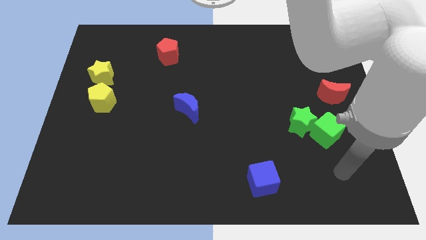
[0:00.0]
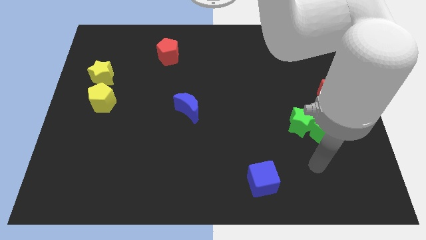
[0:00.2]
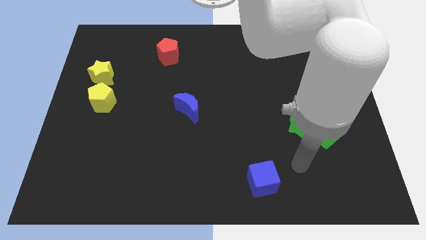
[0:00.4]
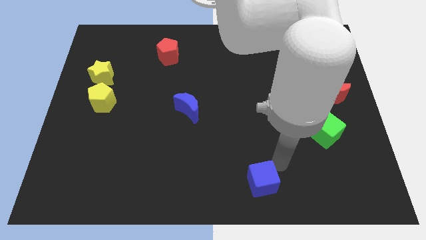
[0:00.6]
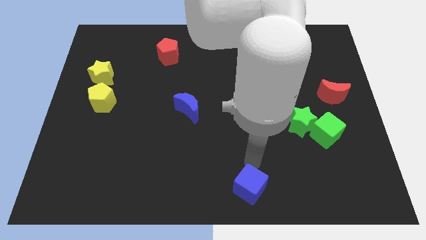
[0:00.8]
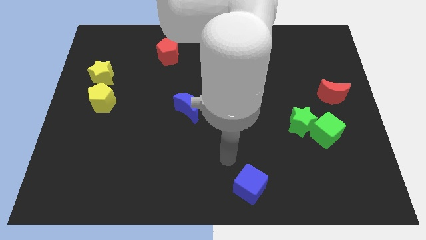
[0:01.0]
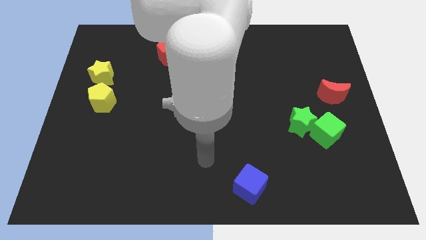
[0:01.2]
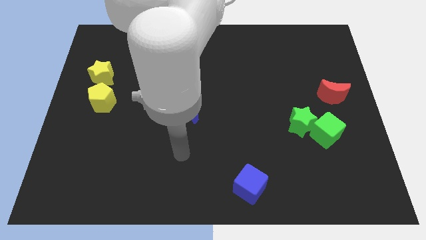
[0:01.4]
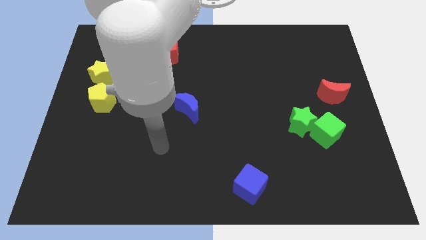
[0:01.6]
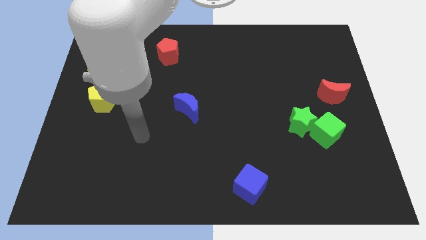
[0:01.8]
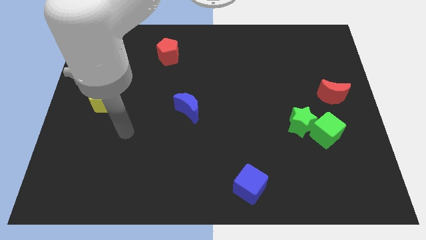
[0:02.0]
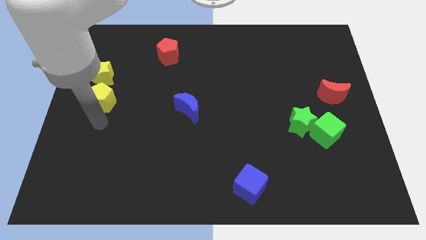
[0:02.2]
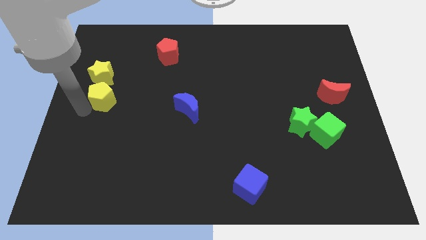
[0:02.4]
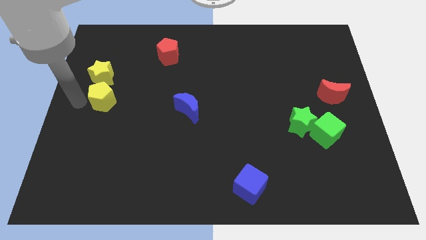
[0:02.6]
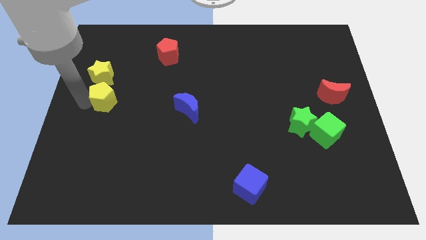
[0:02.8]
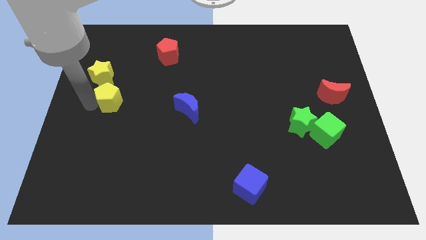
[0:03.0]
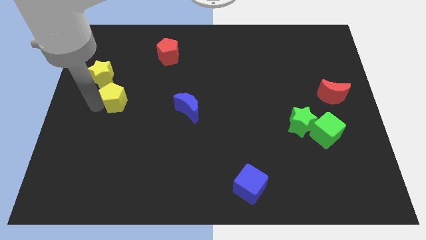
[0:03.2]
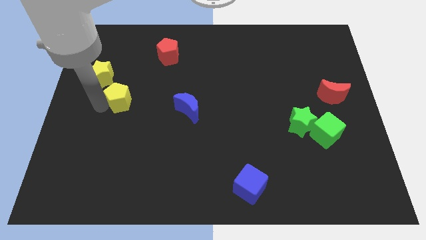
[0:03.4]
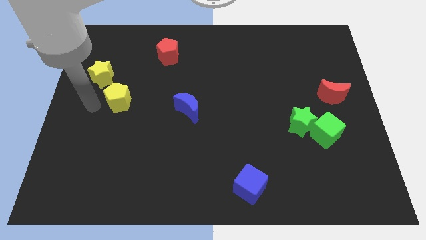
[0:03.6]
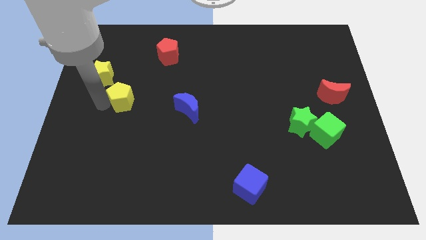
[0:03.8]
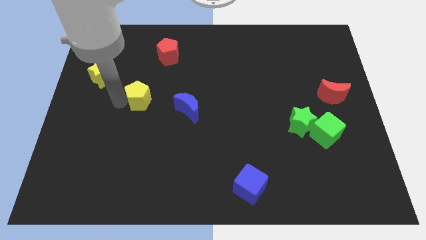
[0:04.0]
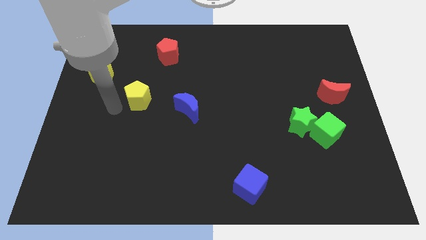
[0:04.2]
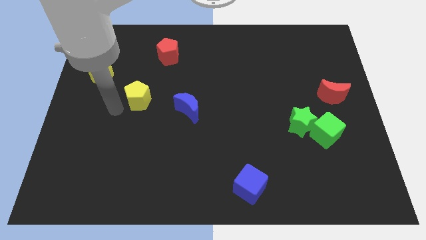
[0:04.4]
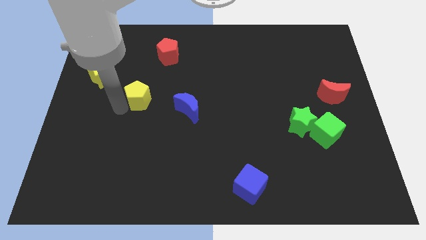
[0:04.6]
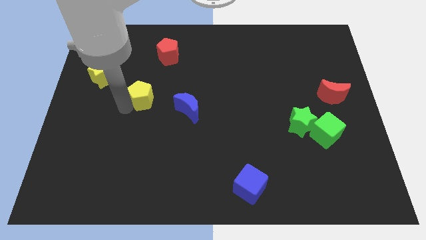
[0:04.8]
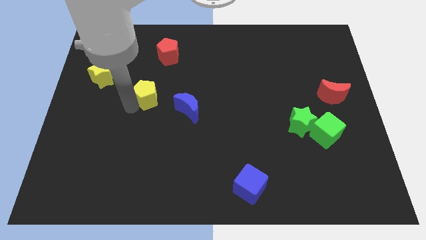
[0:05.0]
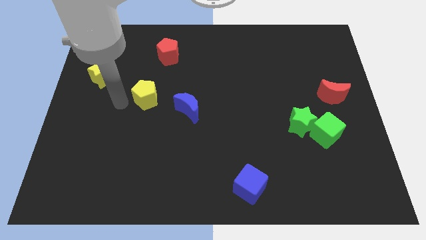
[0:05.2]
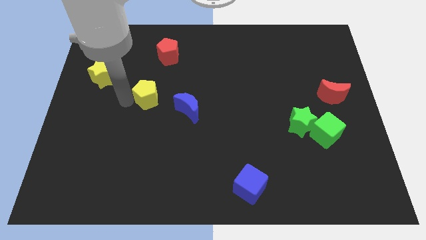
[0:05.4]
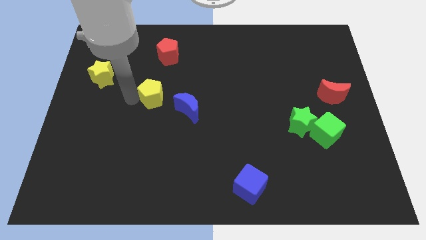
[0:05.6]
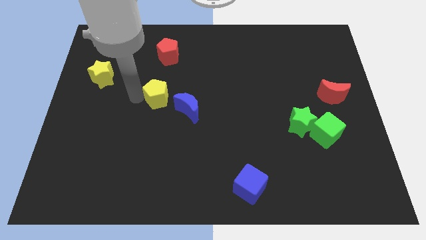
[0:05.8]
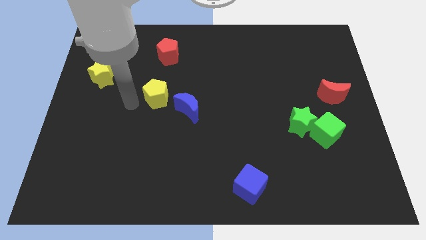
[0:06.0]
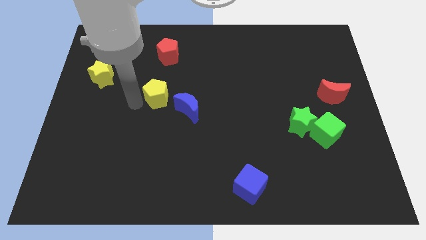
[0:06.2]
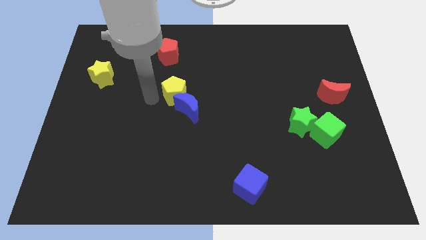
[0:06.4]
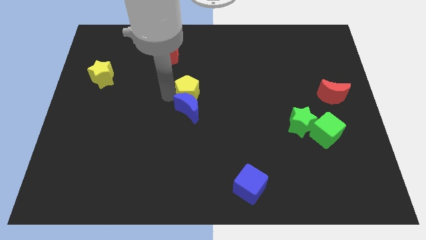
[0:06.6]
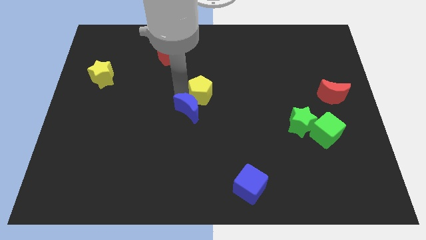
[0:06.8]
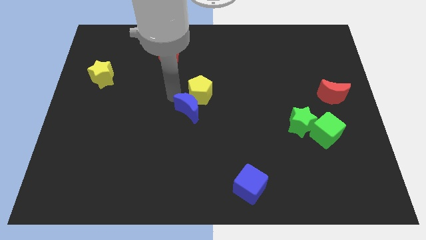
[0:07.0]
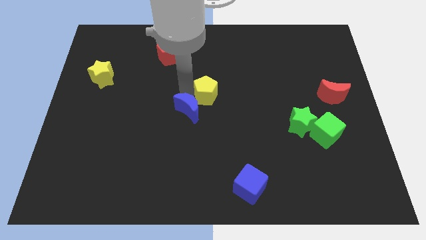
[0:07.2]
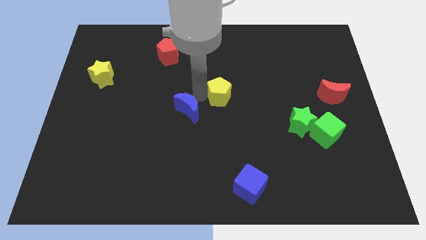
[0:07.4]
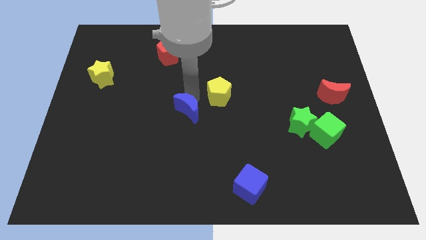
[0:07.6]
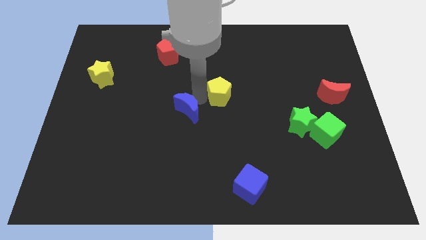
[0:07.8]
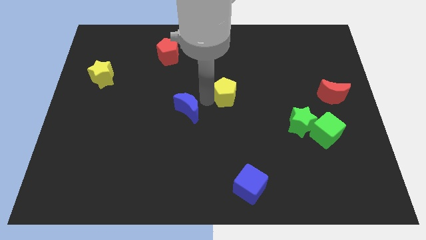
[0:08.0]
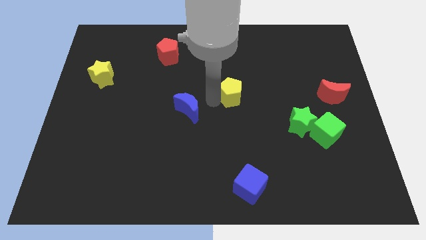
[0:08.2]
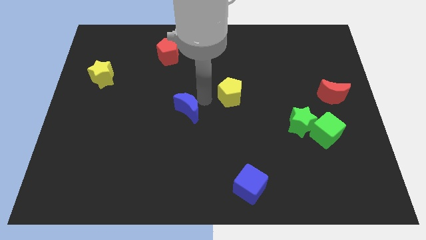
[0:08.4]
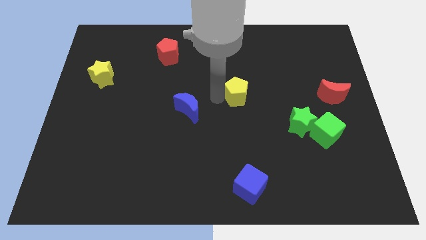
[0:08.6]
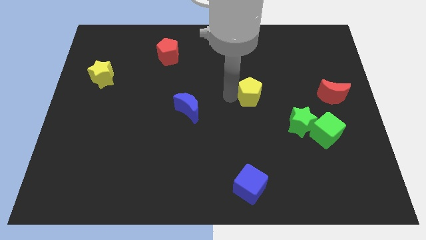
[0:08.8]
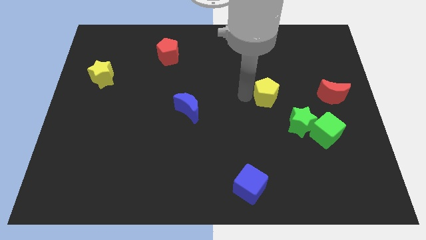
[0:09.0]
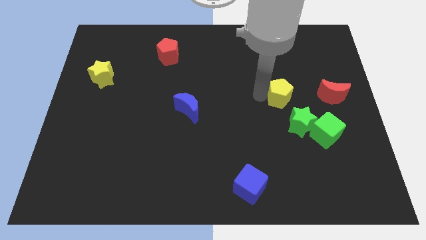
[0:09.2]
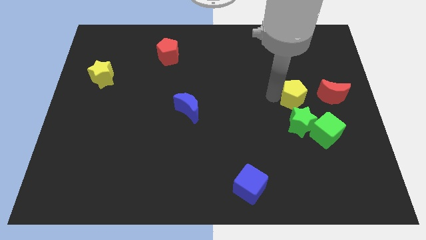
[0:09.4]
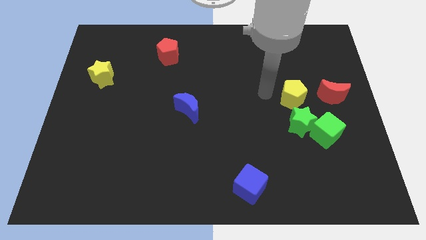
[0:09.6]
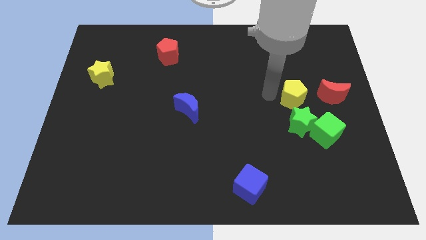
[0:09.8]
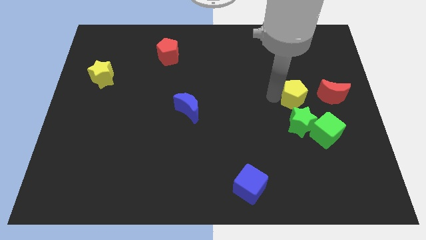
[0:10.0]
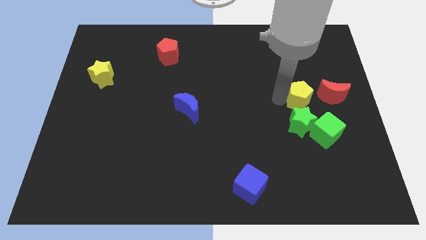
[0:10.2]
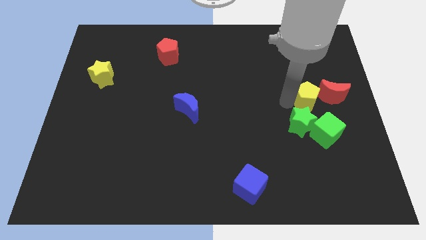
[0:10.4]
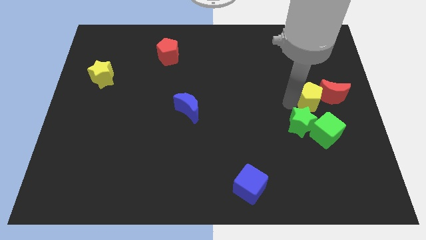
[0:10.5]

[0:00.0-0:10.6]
put the yellow pentagon close to the red moon

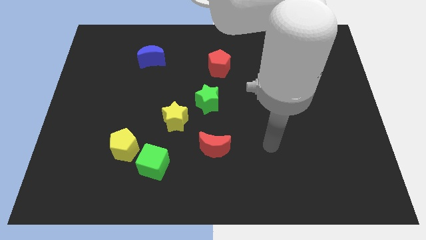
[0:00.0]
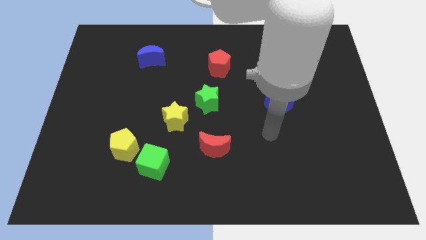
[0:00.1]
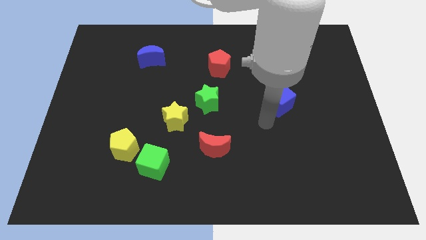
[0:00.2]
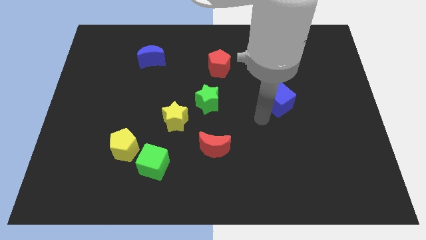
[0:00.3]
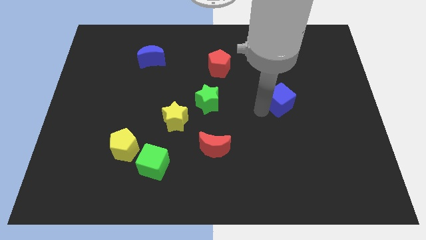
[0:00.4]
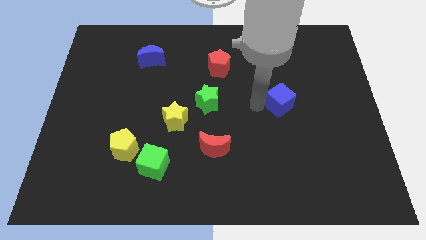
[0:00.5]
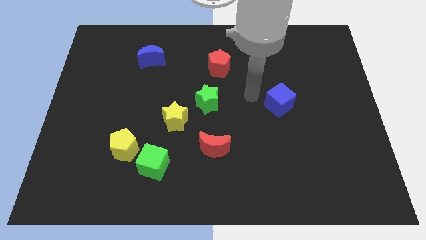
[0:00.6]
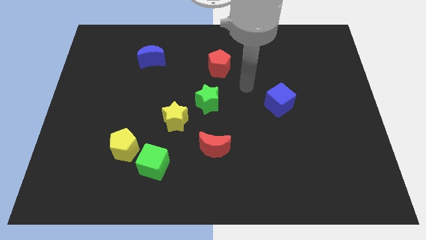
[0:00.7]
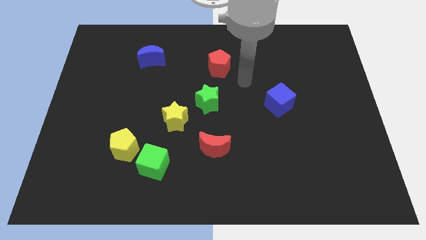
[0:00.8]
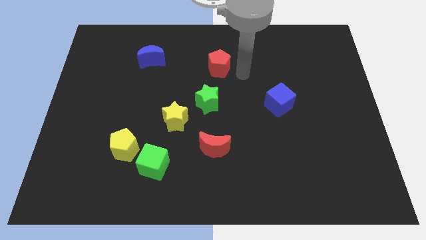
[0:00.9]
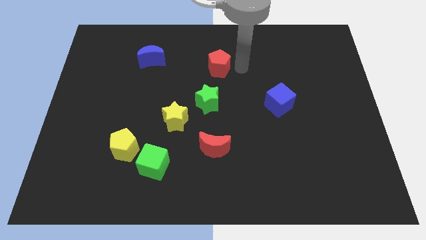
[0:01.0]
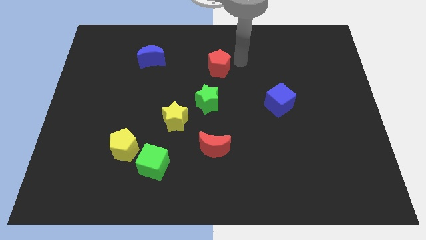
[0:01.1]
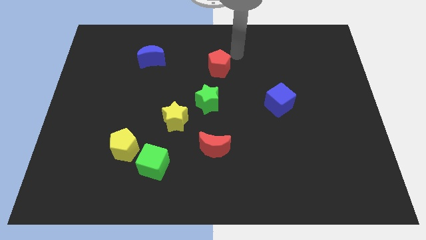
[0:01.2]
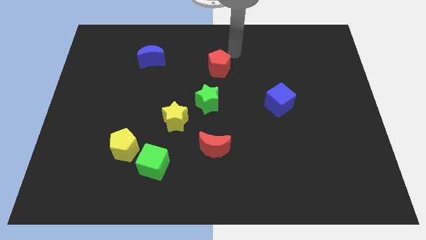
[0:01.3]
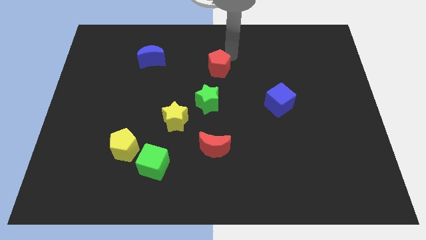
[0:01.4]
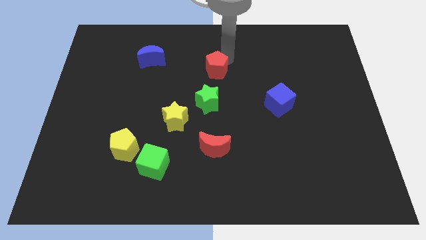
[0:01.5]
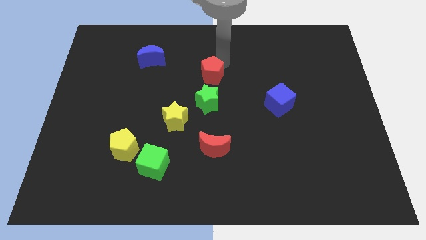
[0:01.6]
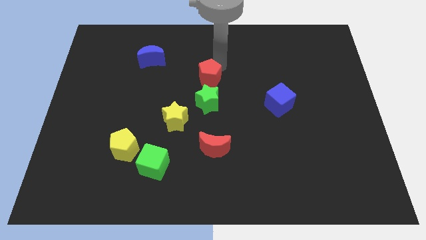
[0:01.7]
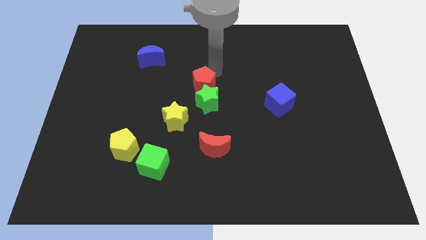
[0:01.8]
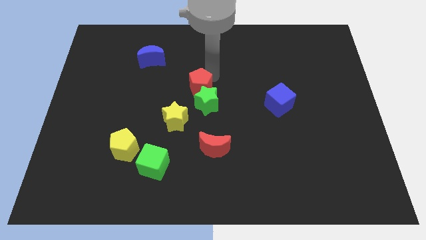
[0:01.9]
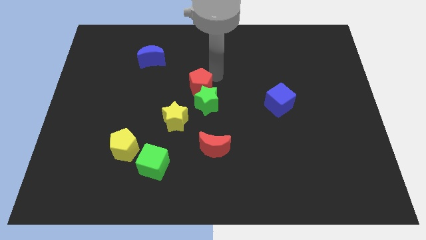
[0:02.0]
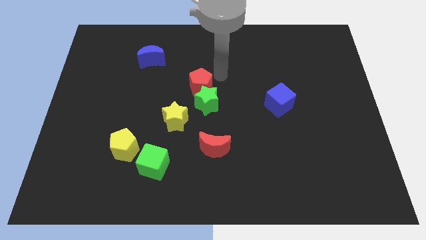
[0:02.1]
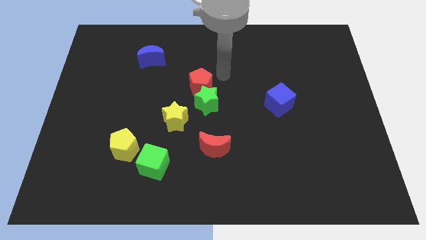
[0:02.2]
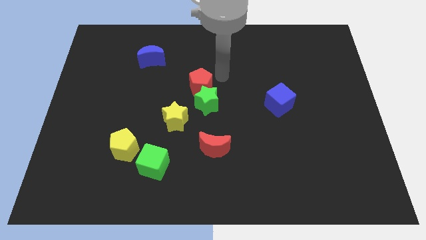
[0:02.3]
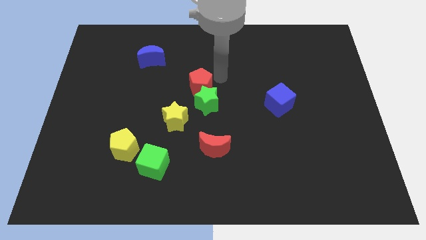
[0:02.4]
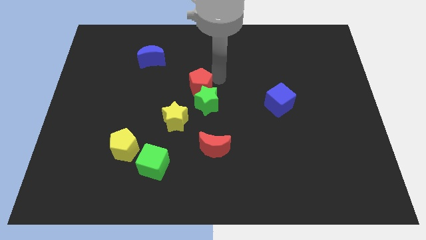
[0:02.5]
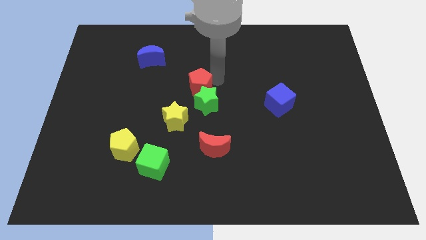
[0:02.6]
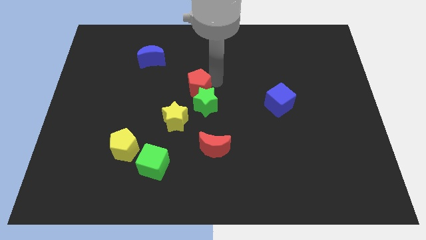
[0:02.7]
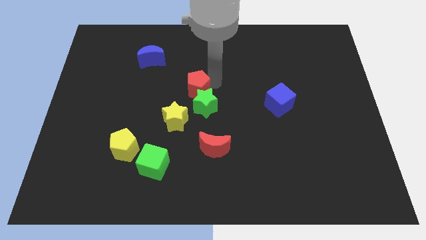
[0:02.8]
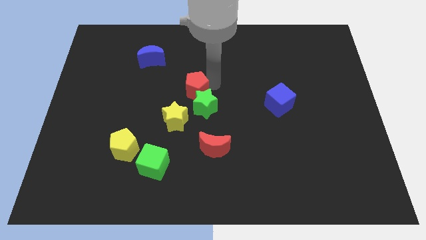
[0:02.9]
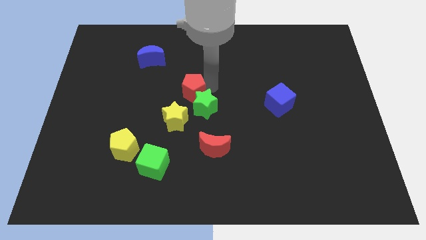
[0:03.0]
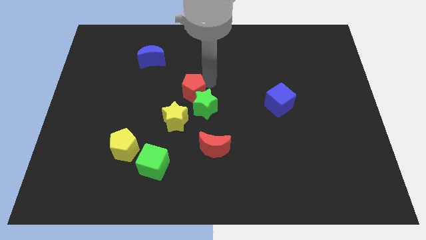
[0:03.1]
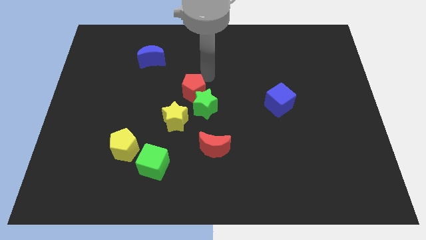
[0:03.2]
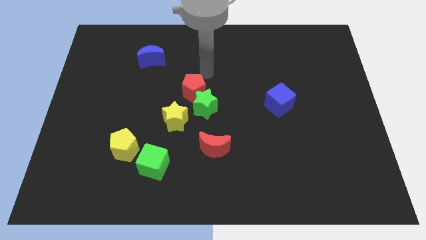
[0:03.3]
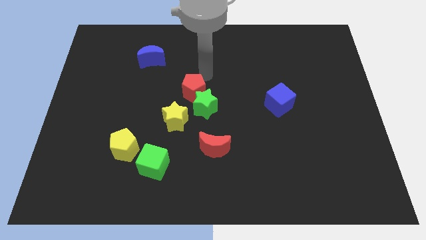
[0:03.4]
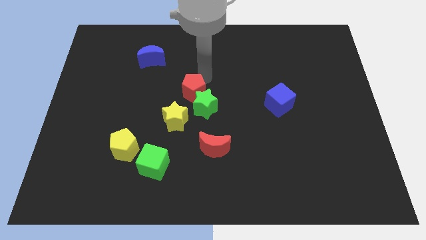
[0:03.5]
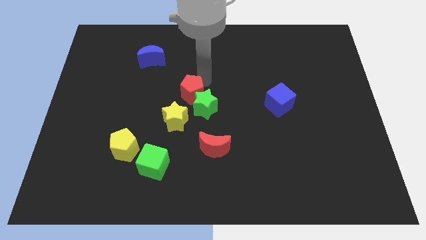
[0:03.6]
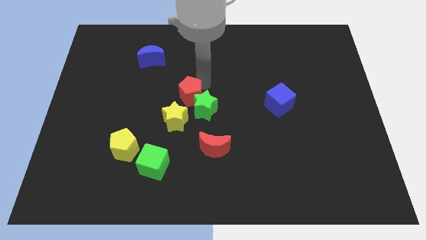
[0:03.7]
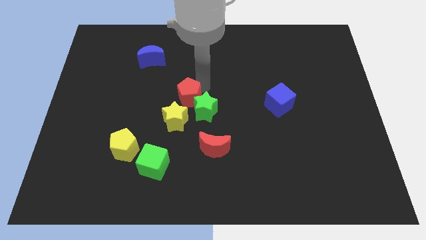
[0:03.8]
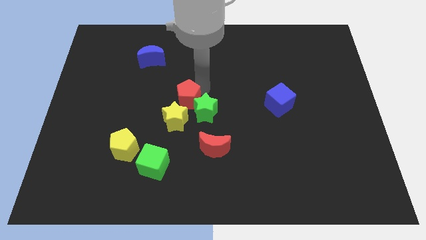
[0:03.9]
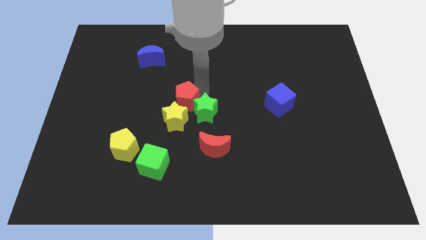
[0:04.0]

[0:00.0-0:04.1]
put the red pentagon towards the yellow star
